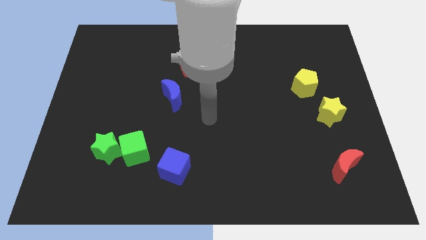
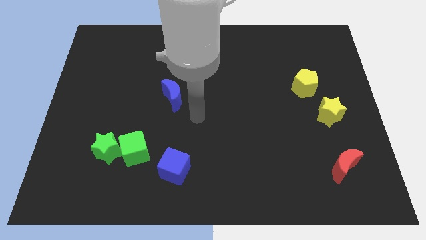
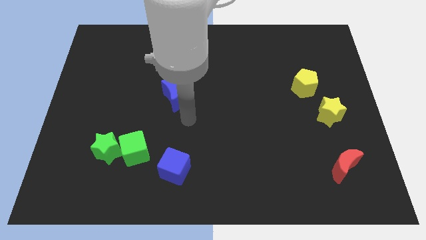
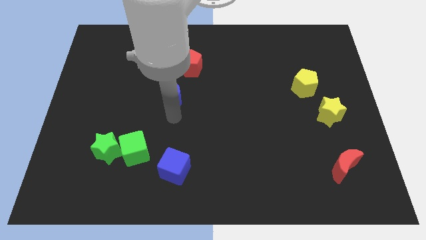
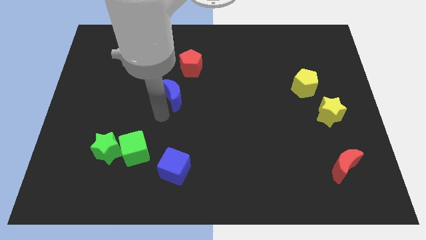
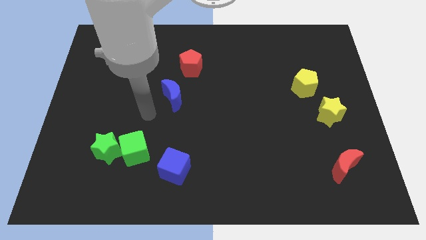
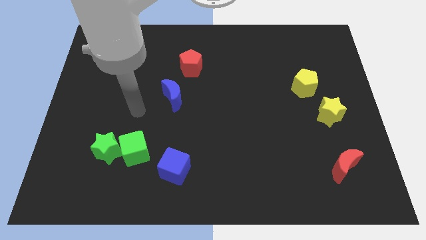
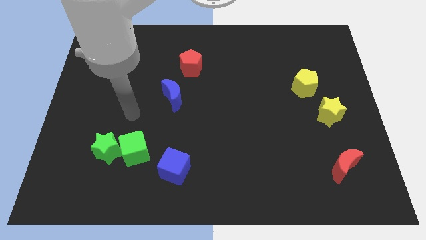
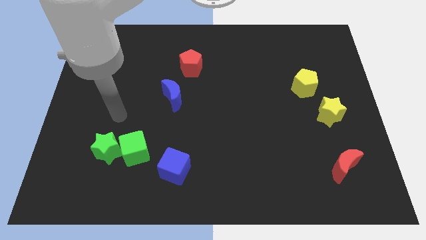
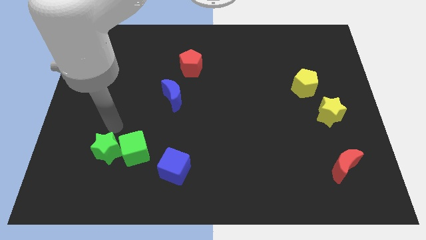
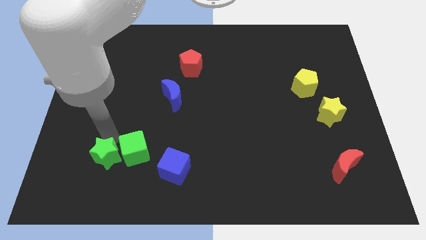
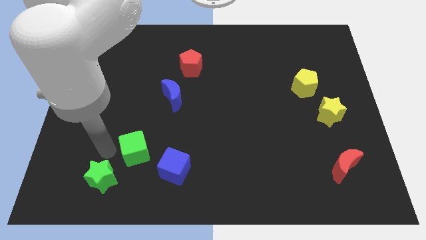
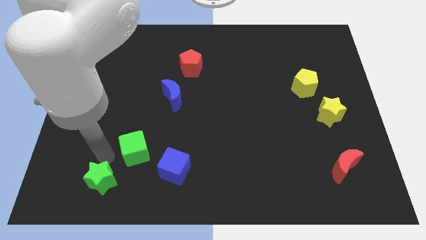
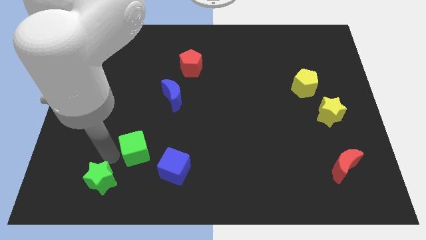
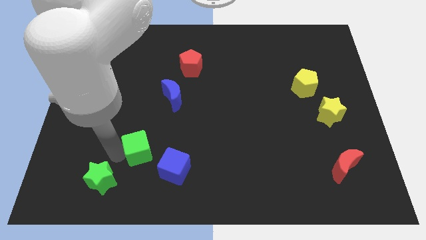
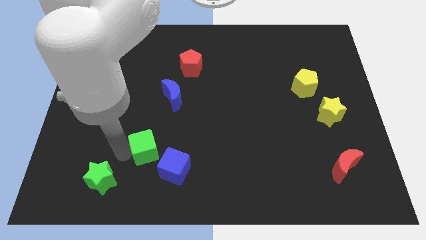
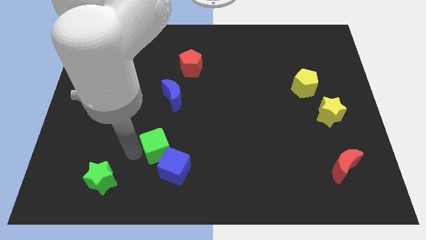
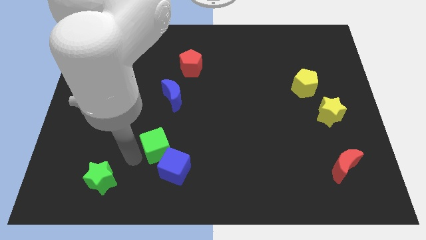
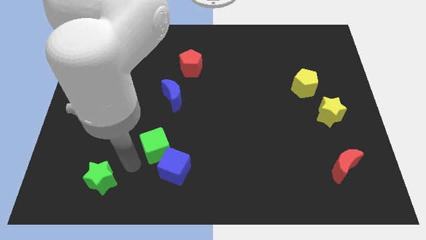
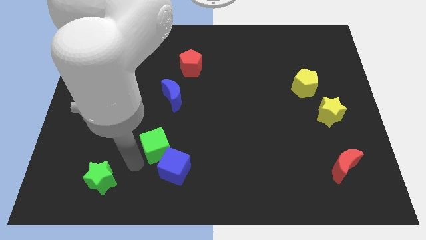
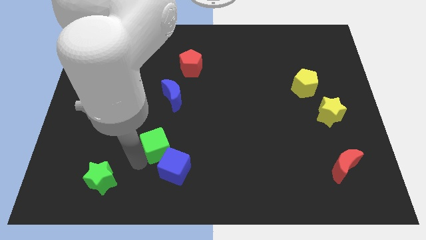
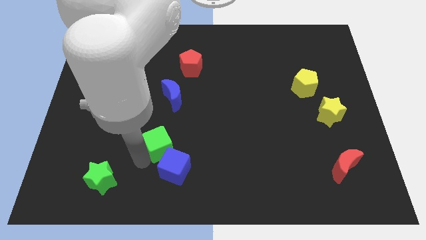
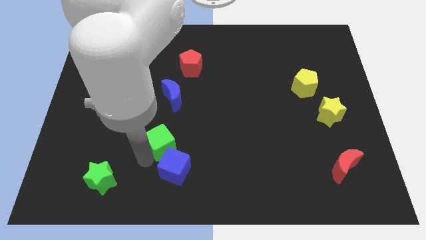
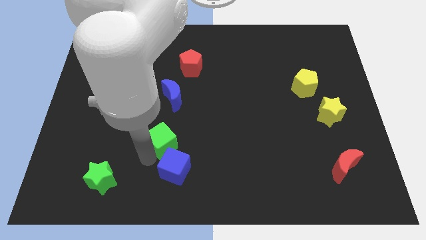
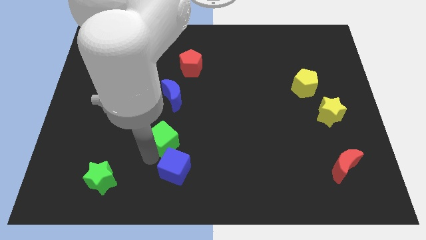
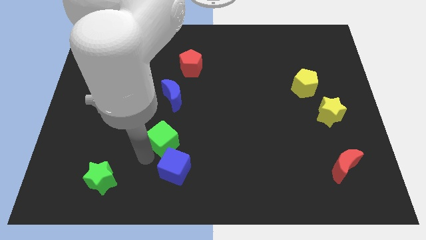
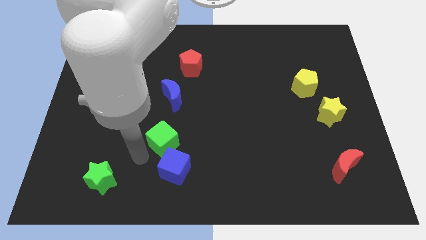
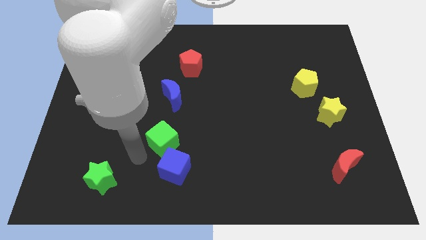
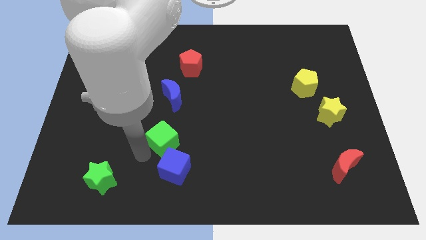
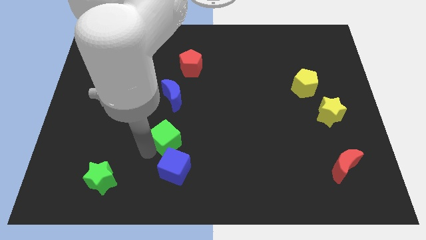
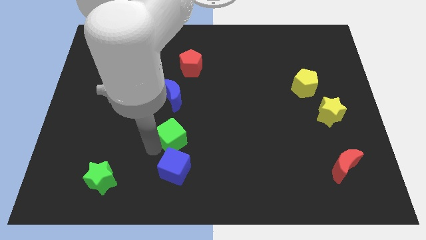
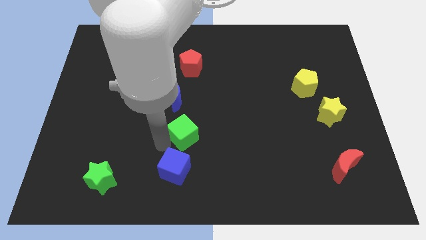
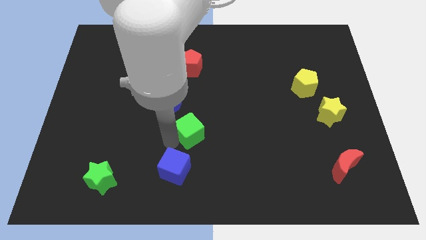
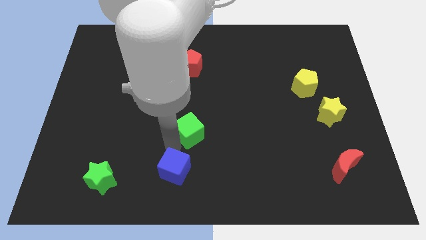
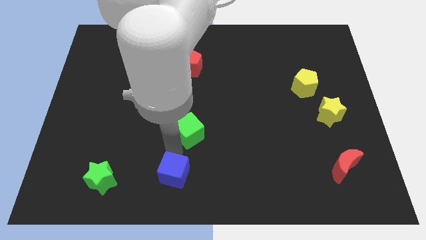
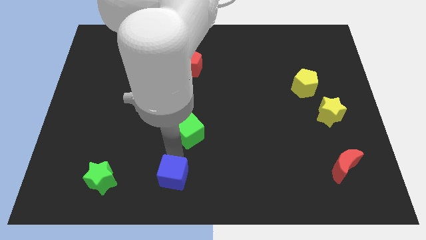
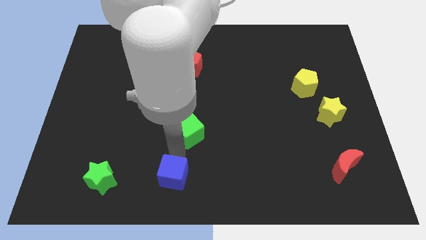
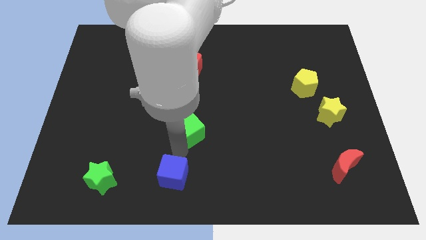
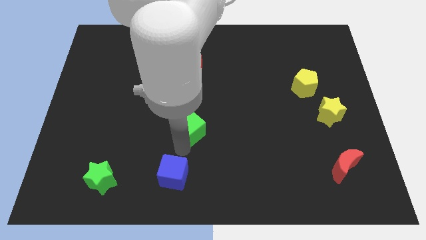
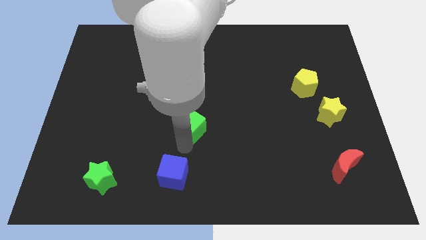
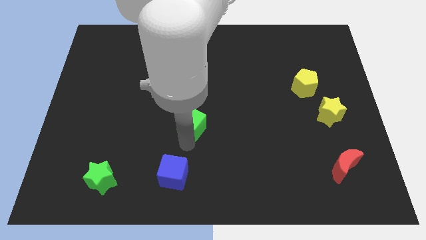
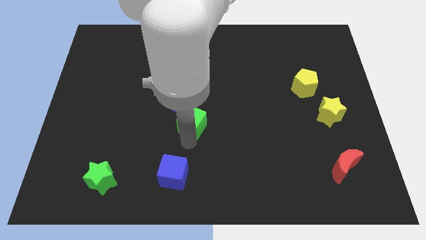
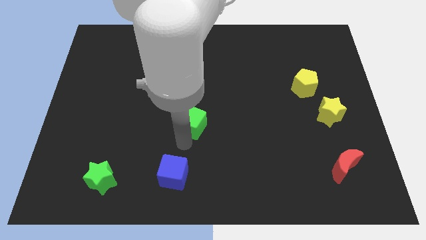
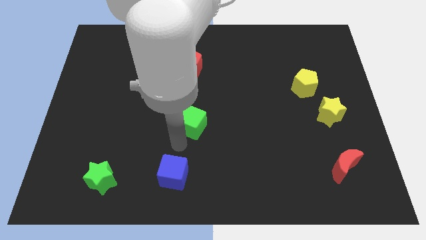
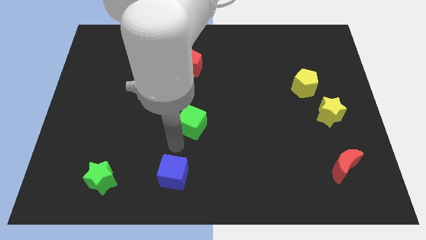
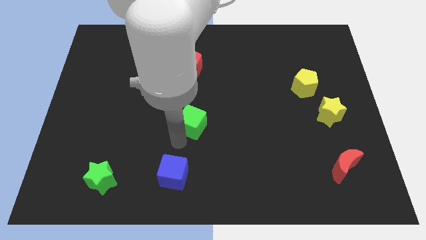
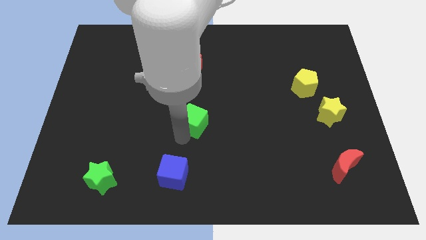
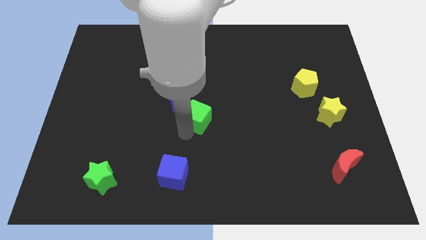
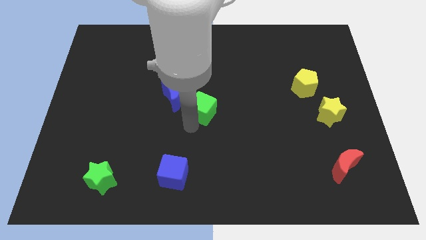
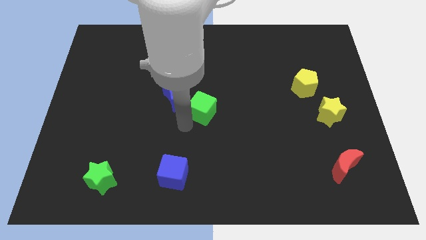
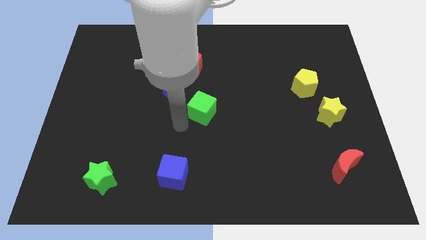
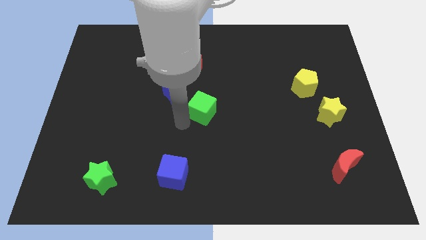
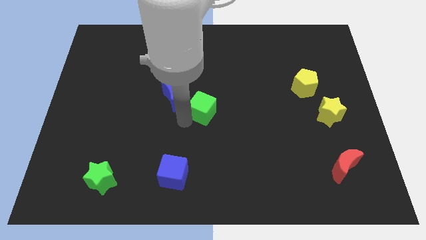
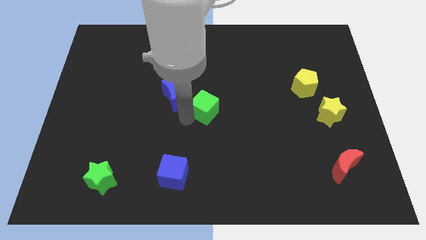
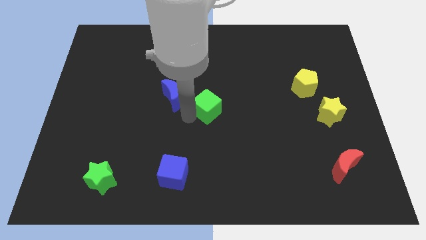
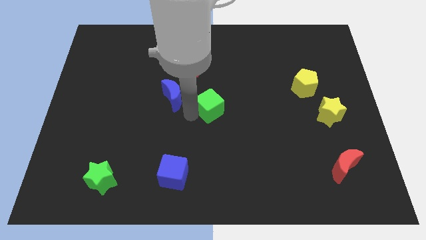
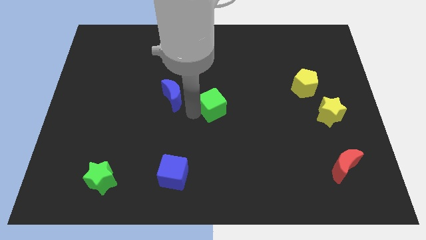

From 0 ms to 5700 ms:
push the green cube up and to the right

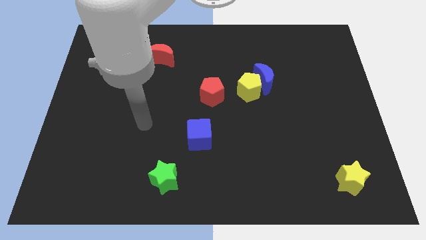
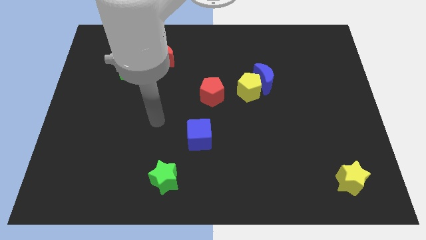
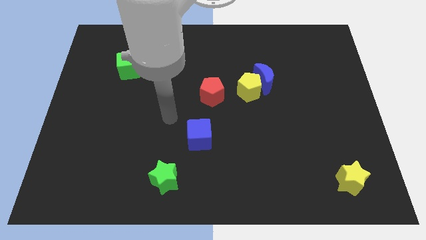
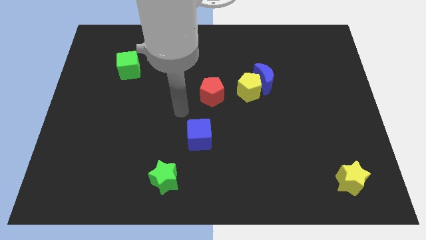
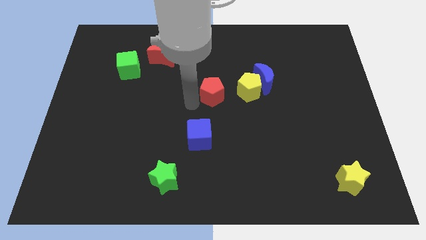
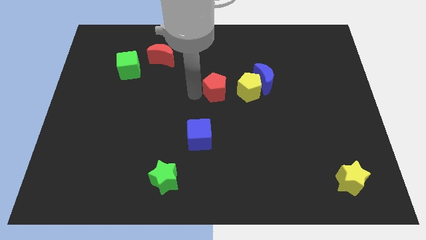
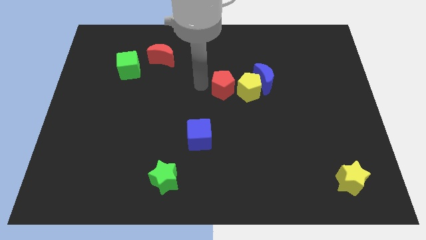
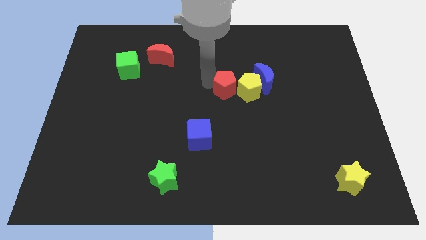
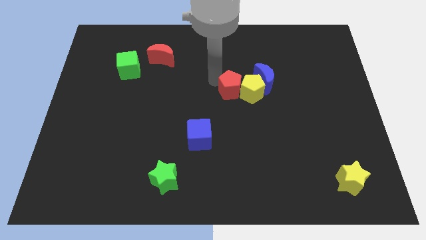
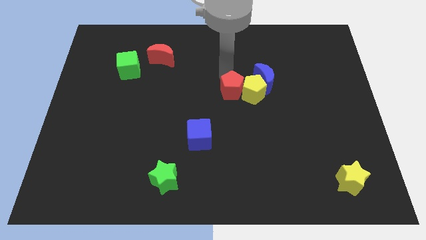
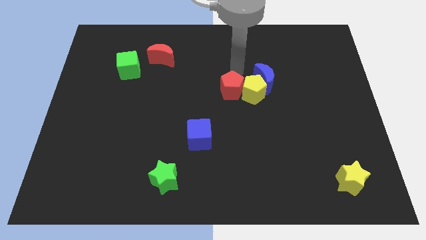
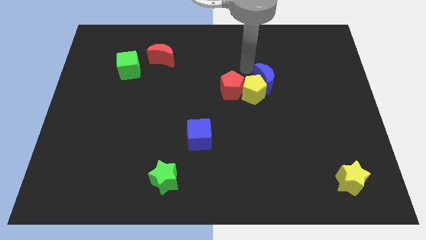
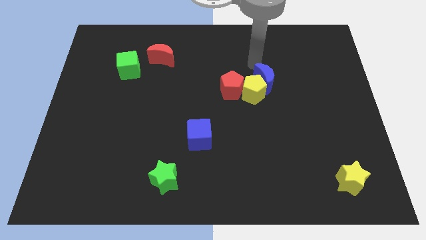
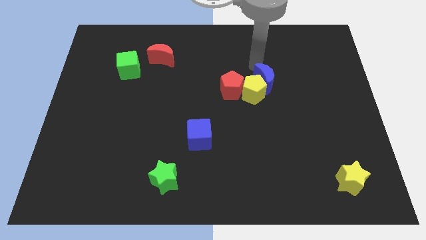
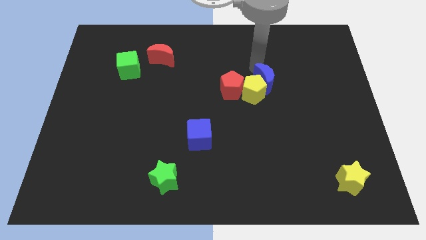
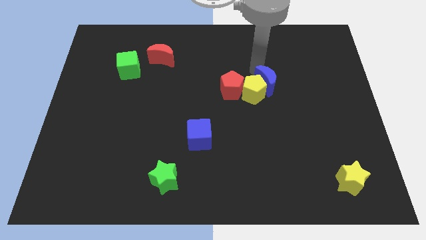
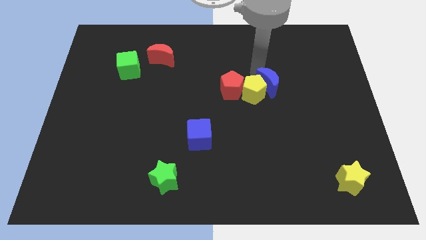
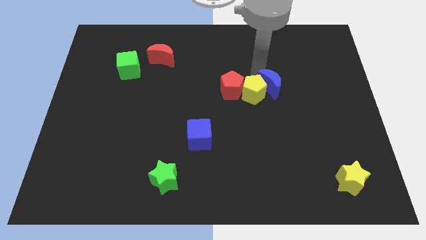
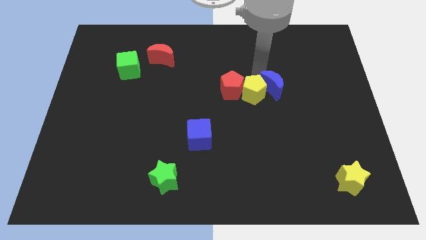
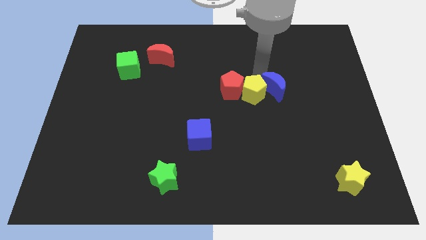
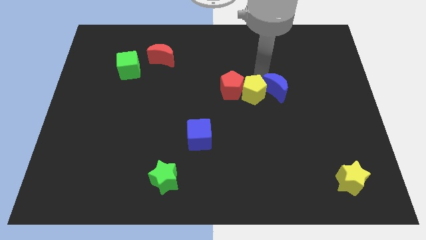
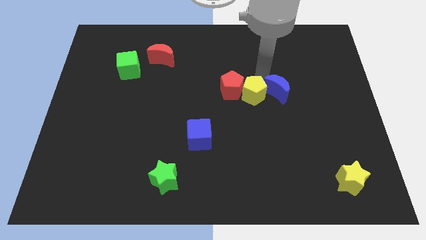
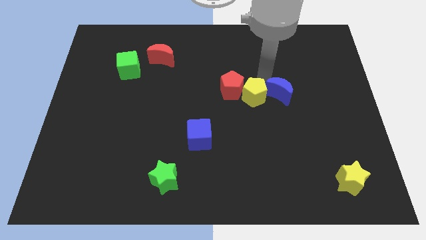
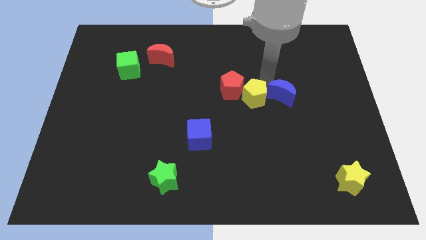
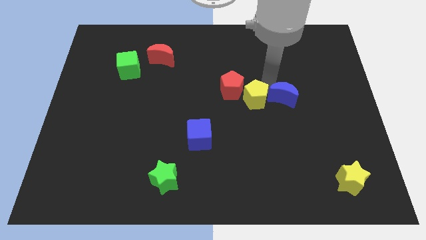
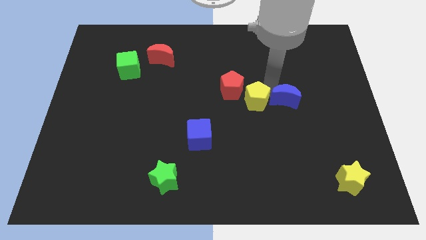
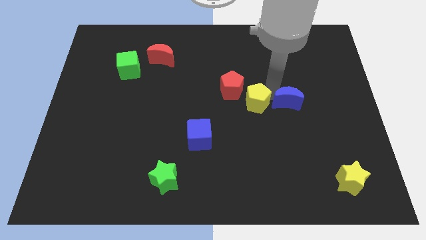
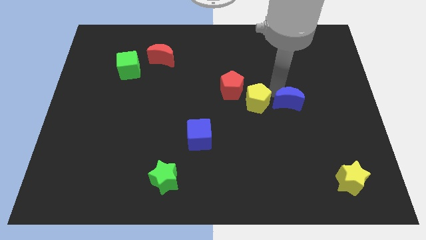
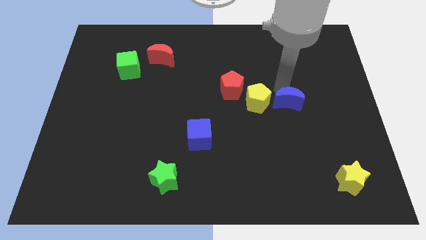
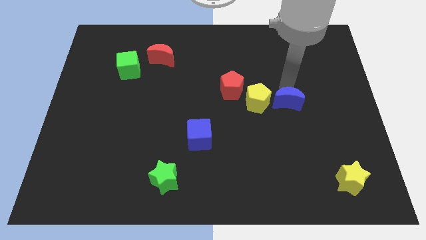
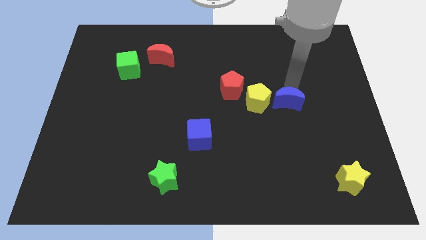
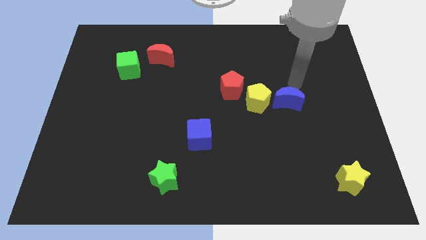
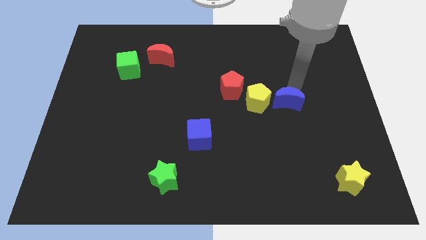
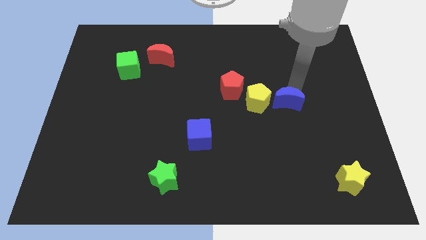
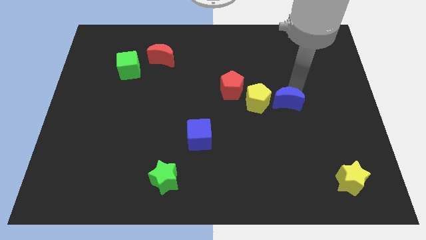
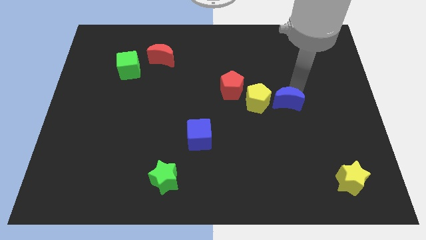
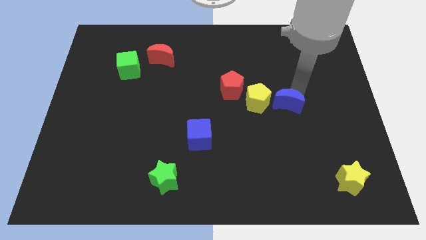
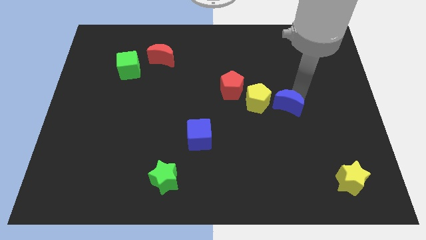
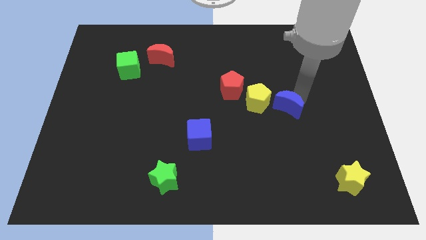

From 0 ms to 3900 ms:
slide the blue moon a little downwards
